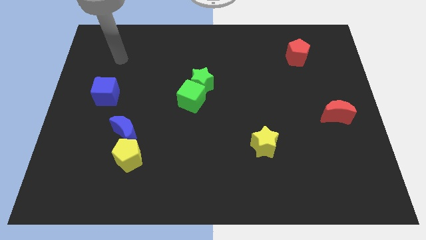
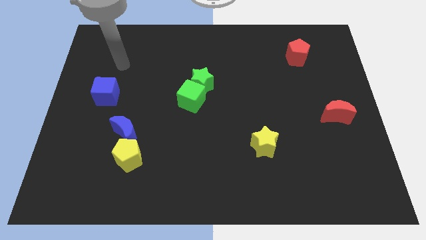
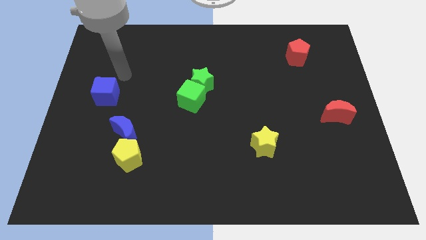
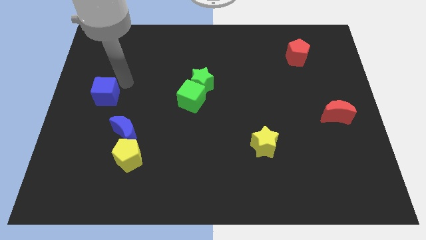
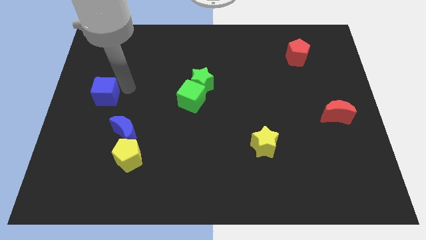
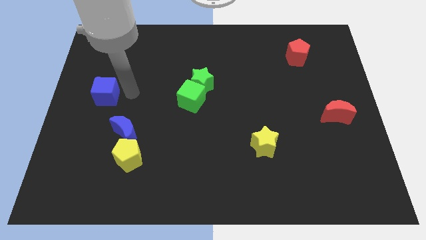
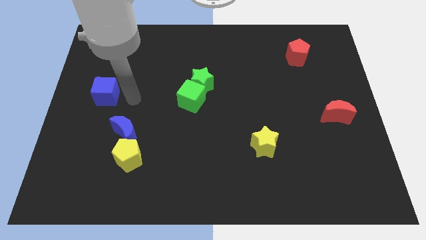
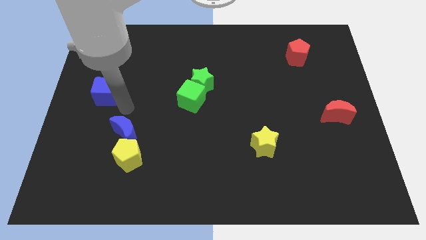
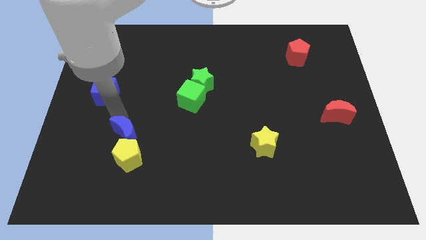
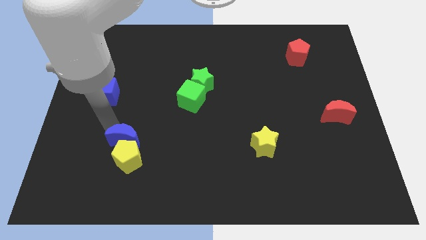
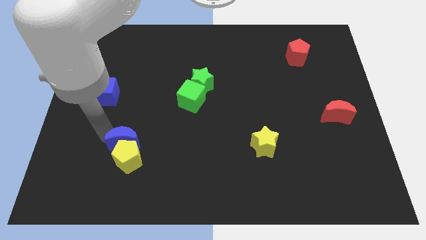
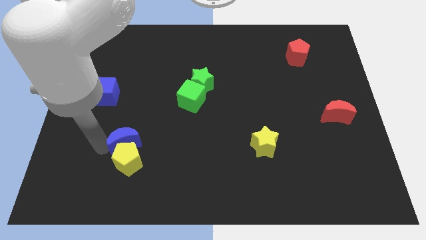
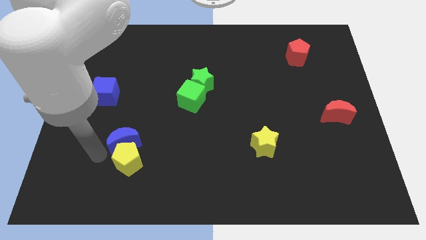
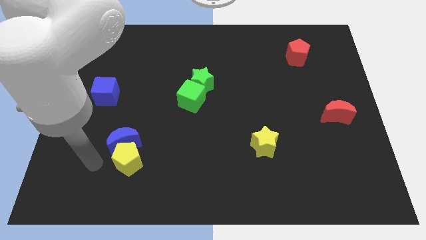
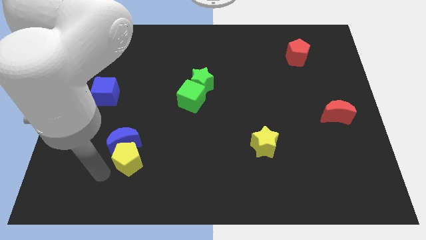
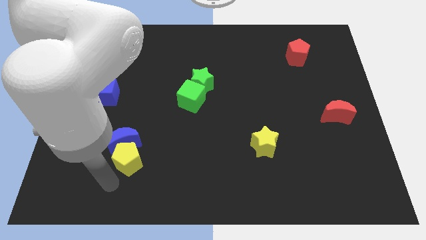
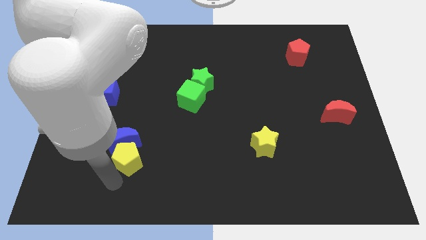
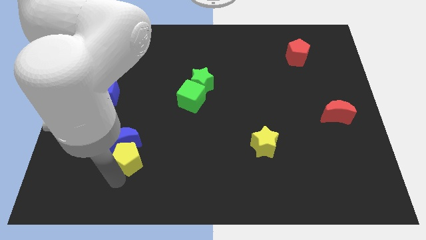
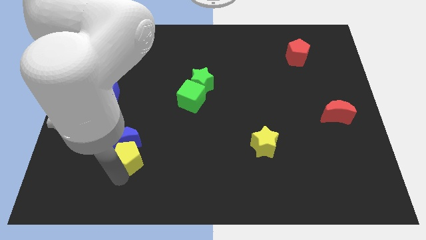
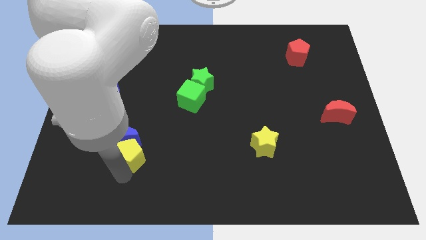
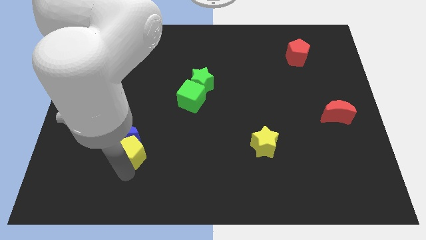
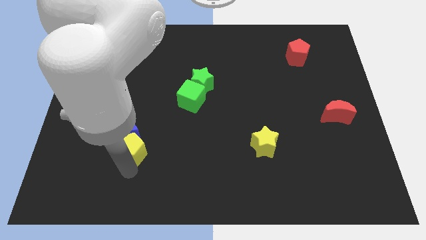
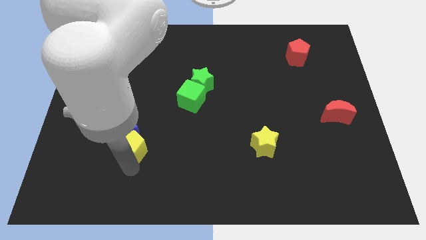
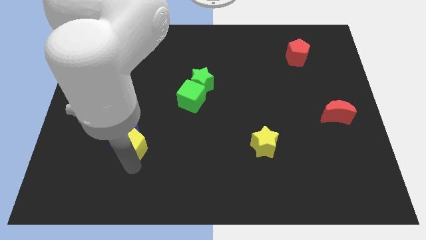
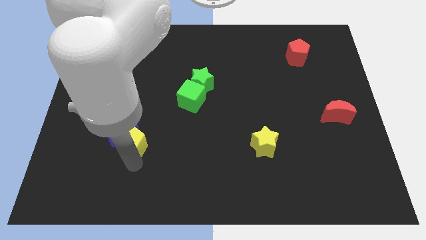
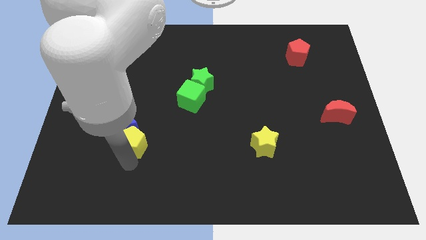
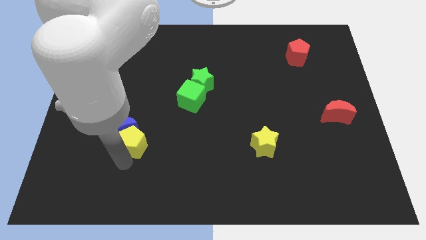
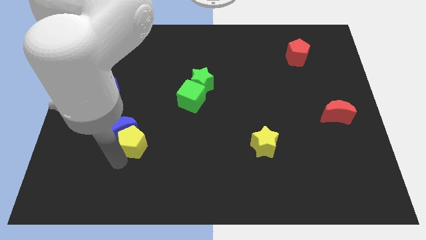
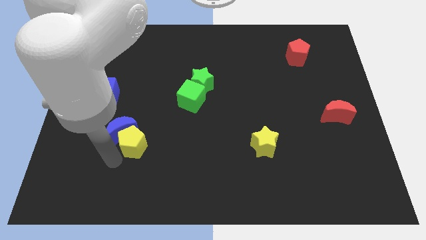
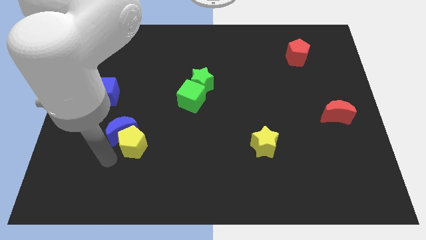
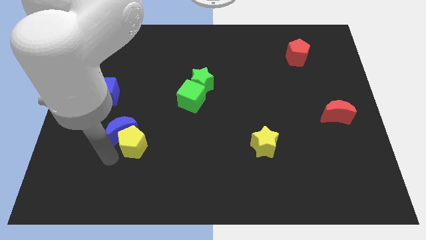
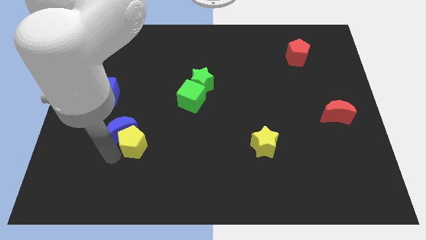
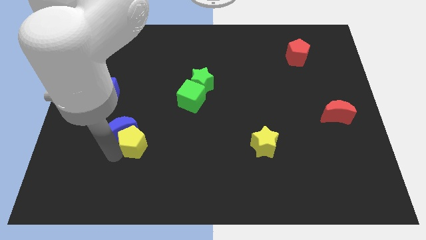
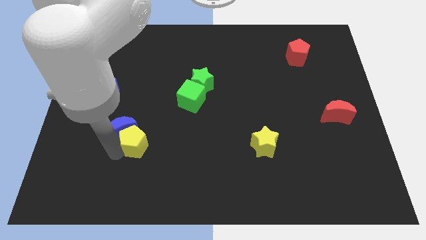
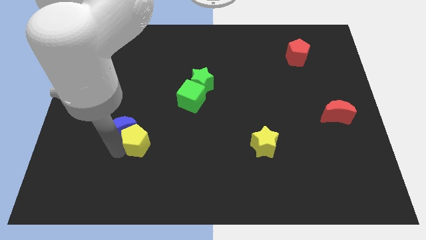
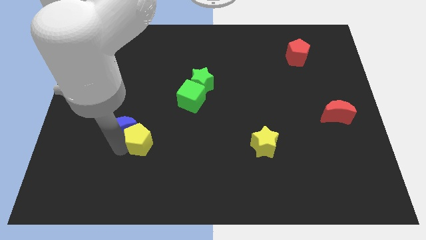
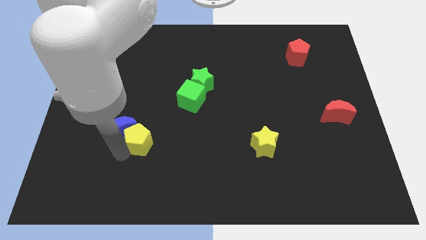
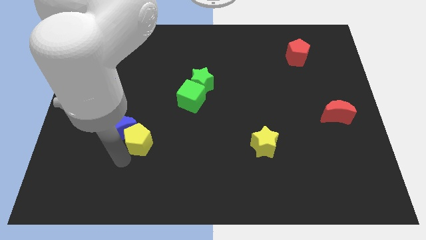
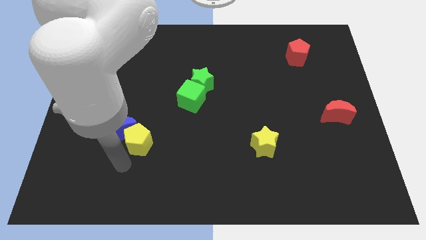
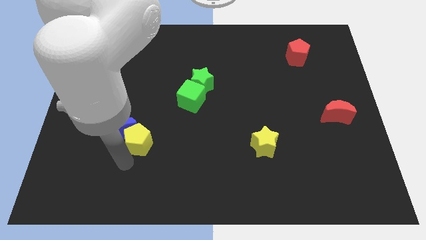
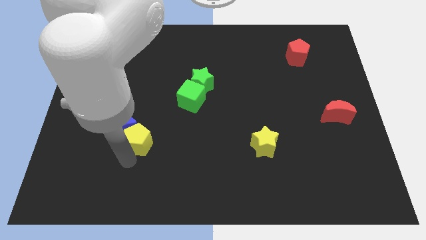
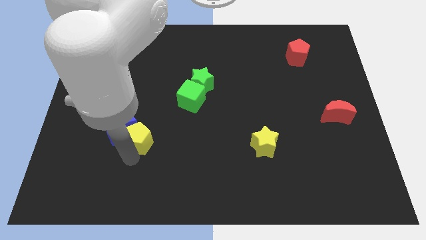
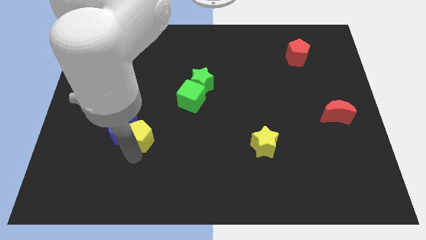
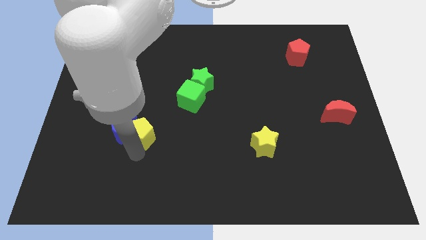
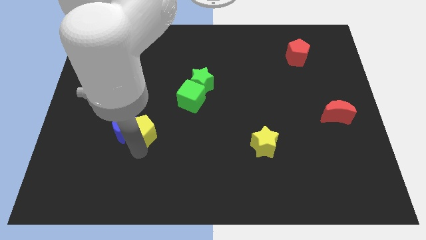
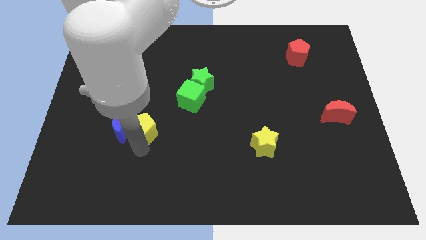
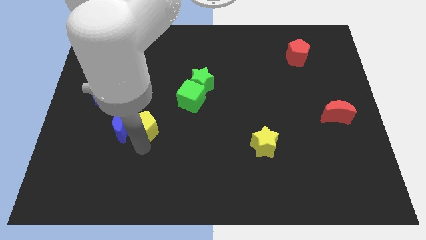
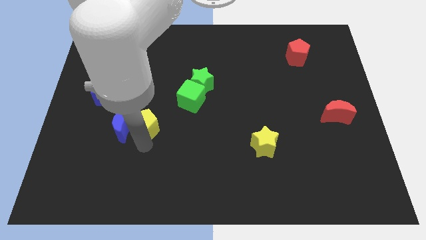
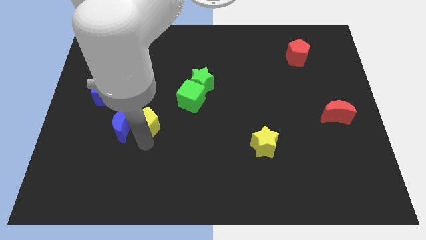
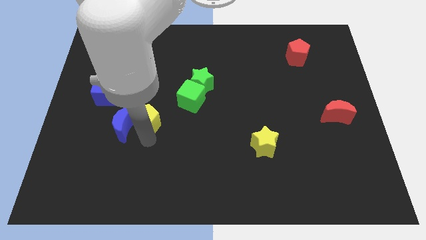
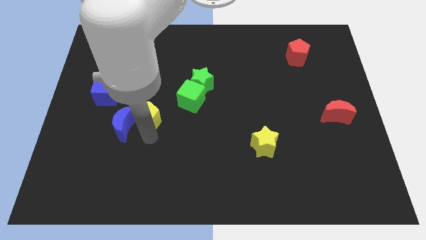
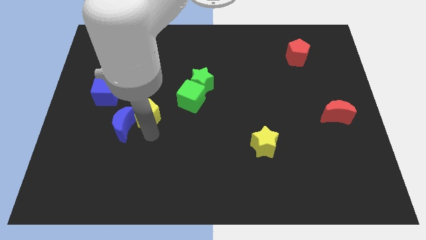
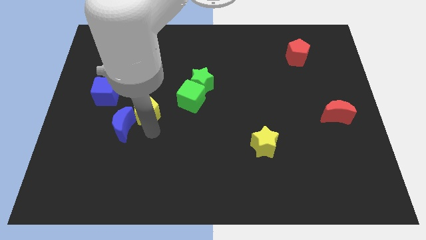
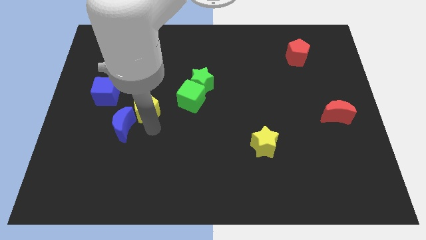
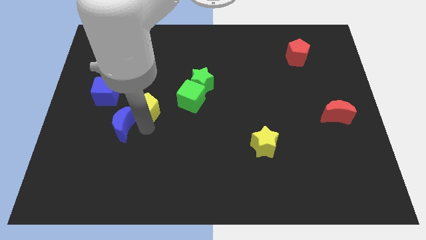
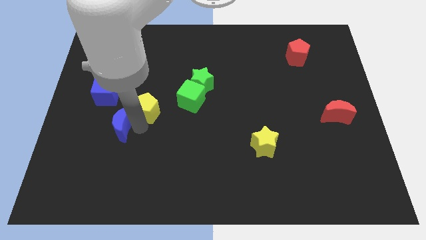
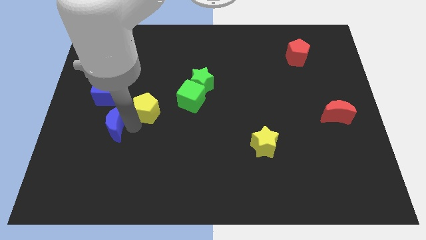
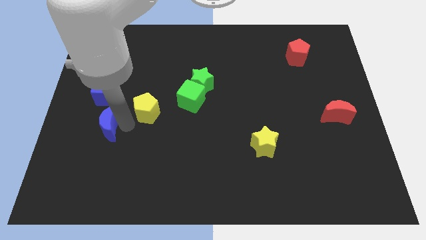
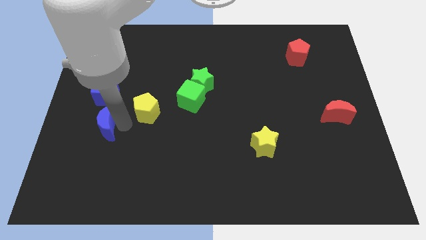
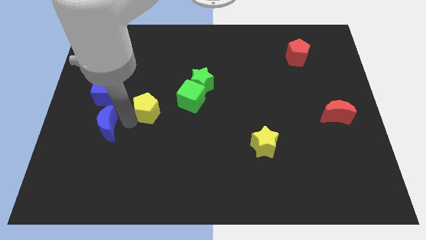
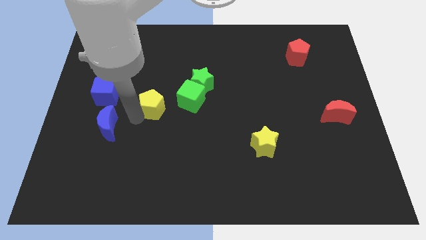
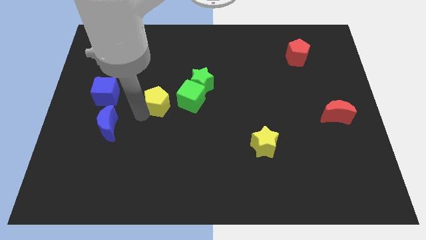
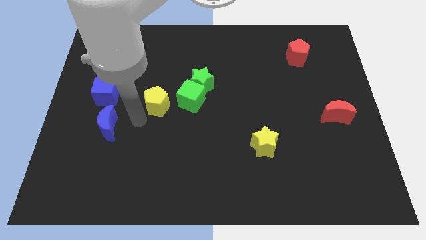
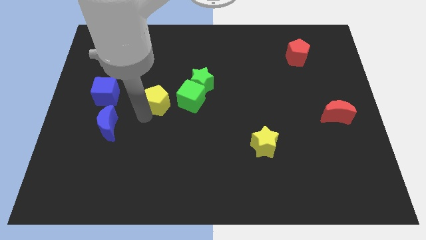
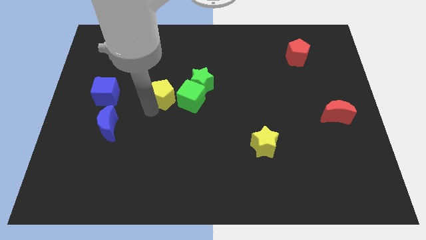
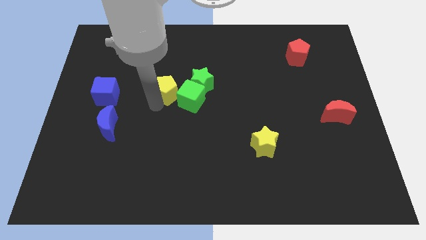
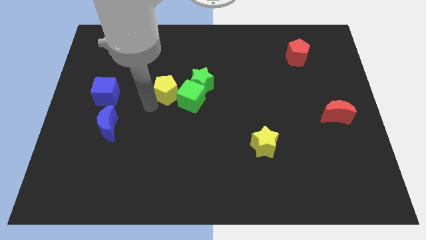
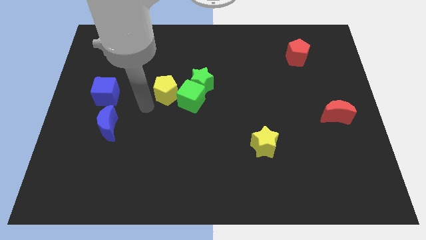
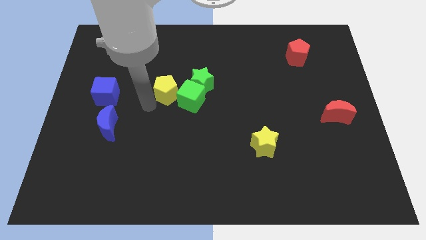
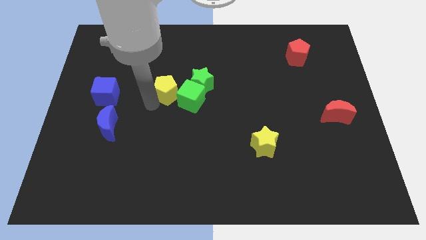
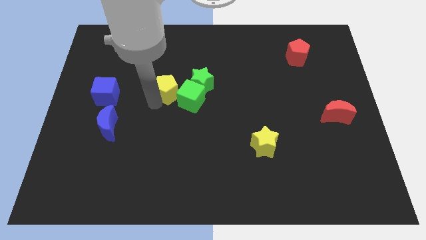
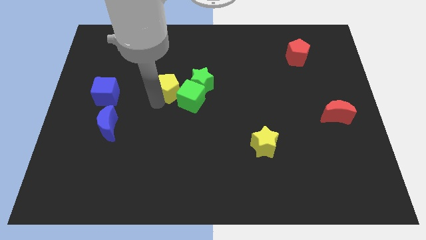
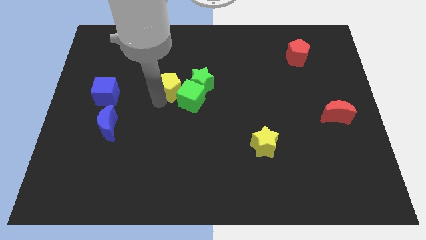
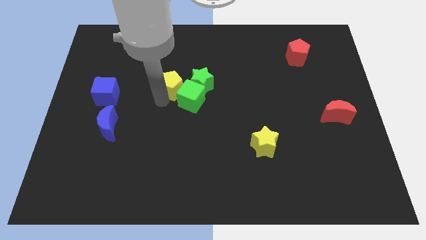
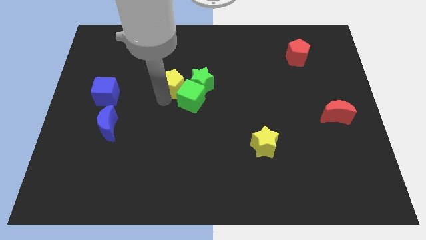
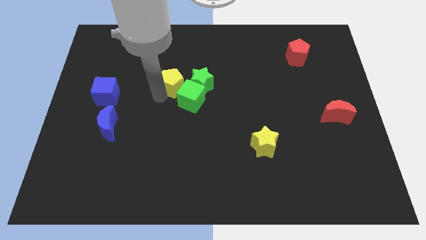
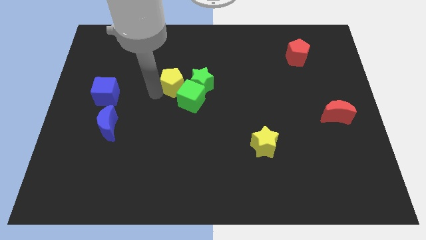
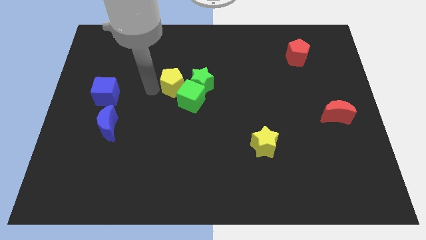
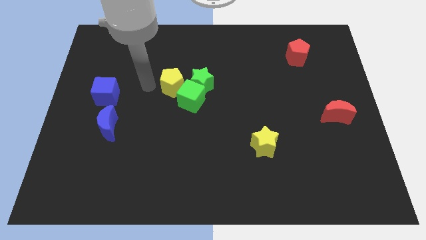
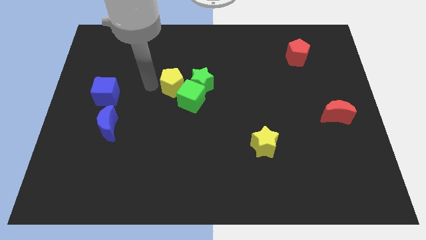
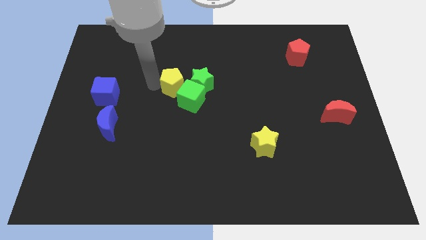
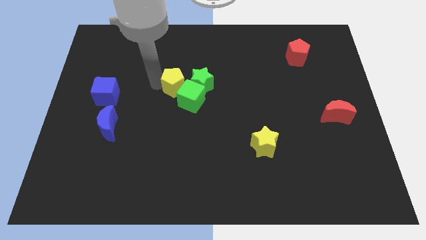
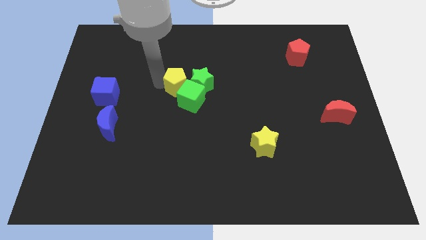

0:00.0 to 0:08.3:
slide the yellow pentagon next to the green star

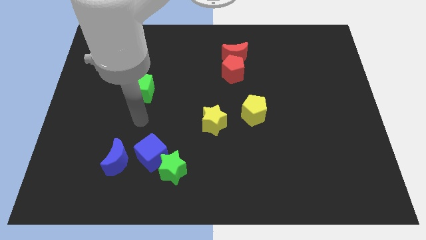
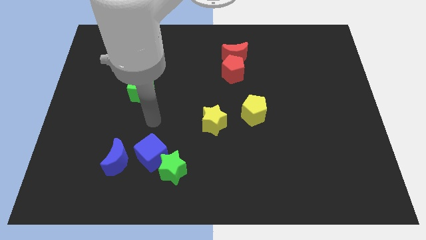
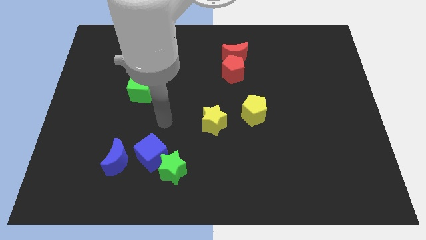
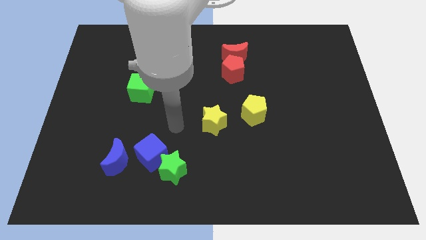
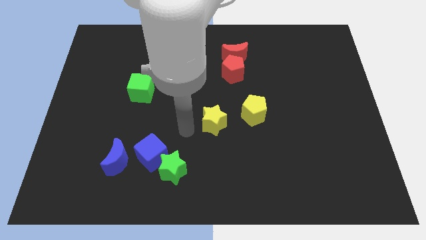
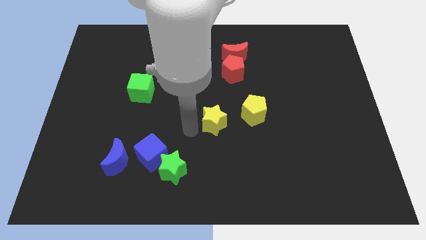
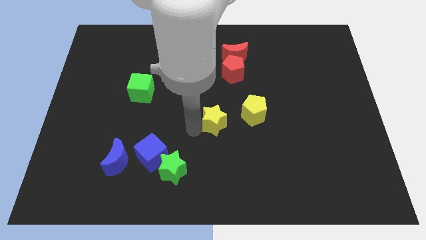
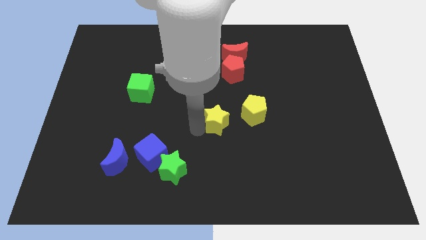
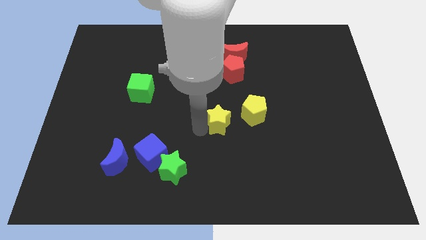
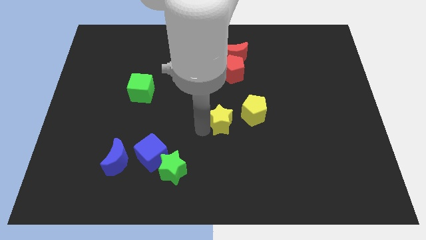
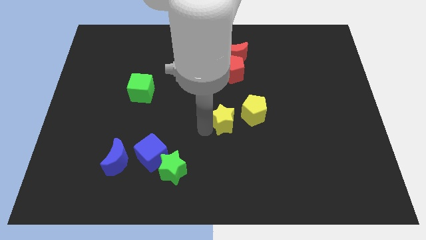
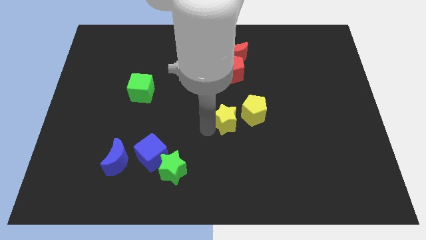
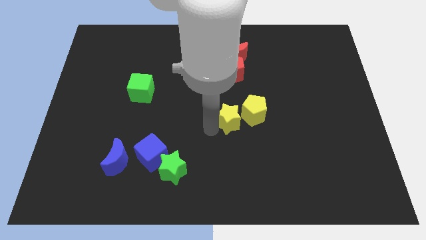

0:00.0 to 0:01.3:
move the yellow star next to the yellow pentagon
